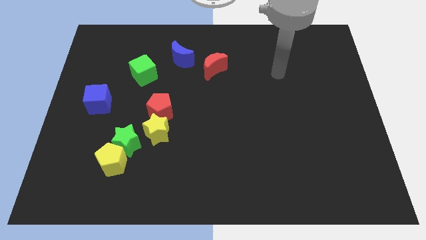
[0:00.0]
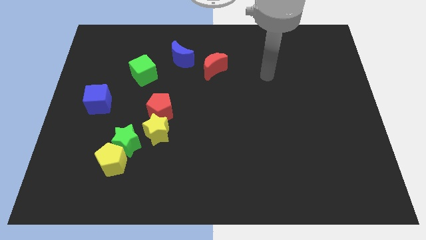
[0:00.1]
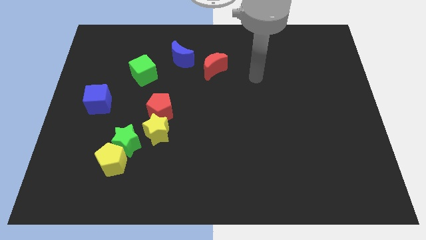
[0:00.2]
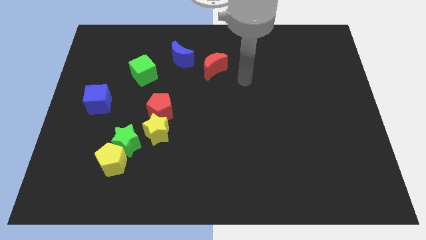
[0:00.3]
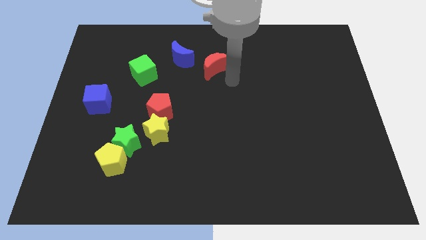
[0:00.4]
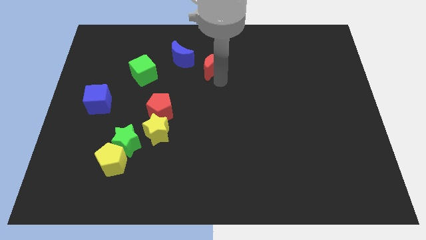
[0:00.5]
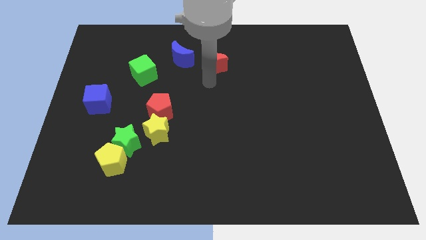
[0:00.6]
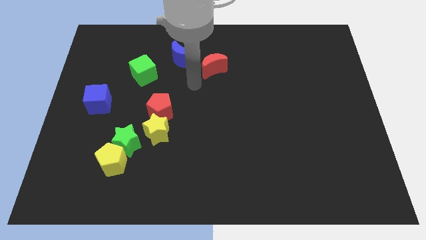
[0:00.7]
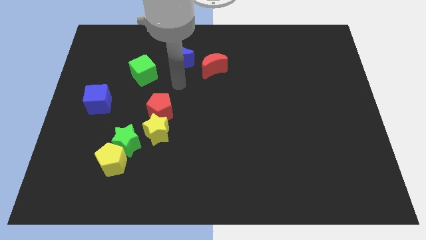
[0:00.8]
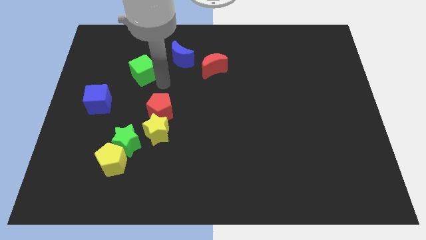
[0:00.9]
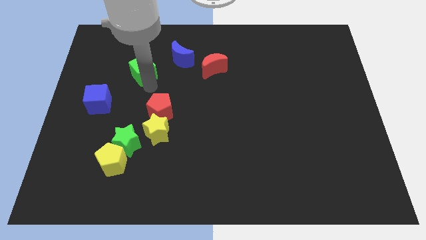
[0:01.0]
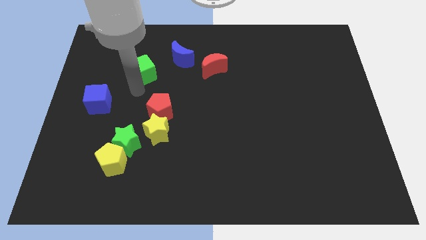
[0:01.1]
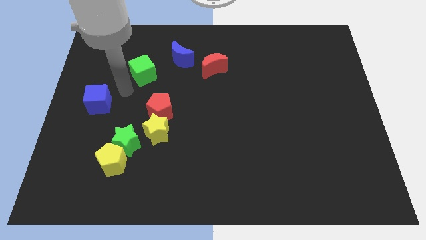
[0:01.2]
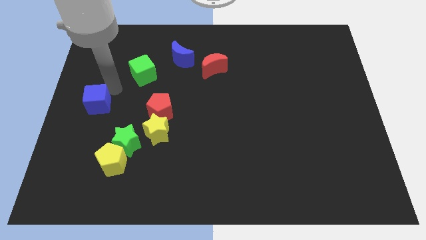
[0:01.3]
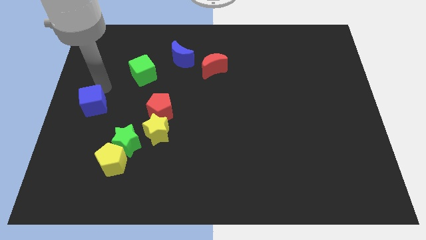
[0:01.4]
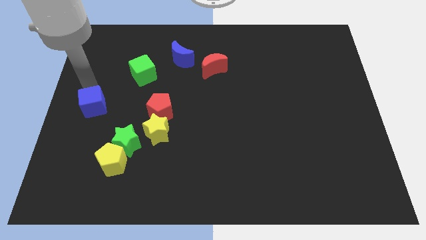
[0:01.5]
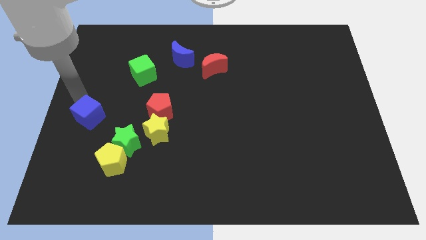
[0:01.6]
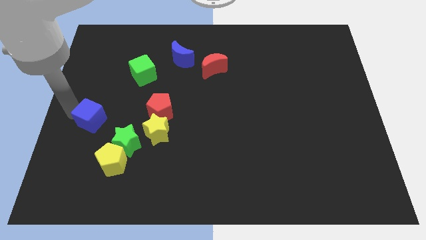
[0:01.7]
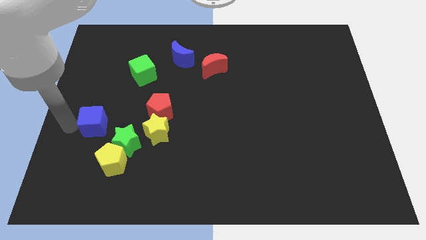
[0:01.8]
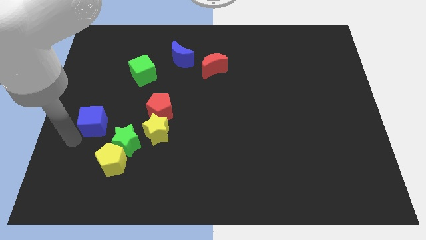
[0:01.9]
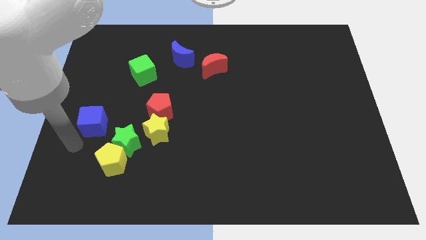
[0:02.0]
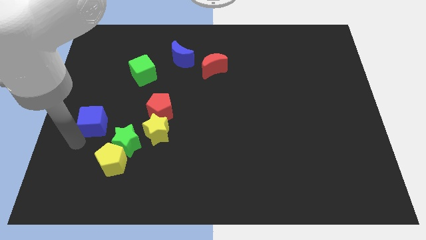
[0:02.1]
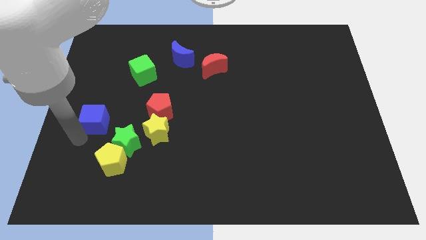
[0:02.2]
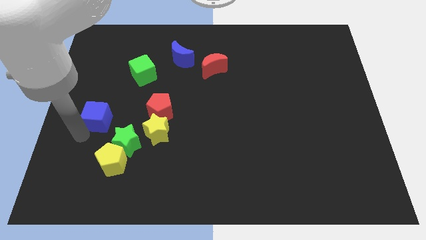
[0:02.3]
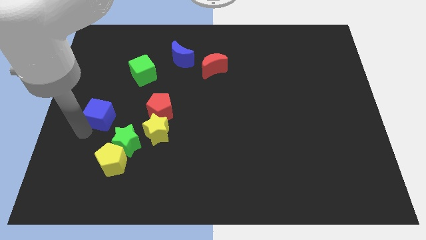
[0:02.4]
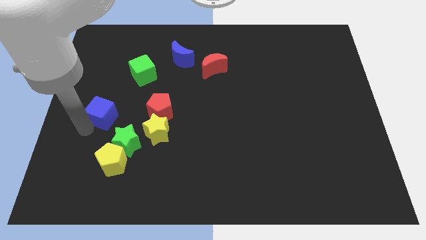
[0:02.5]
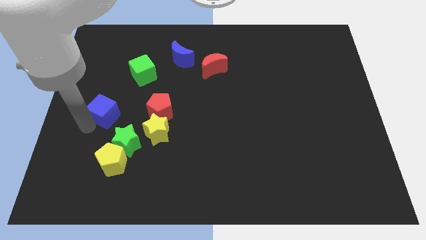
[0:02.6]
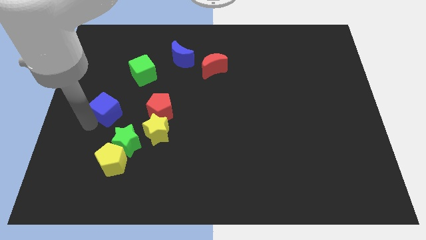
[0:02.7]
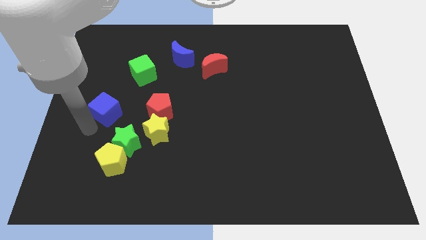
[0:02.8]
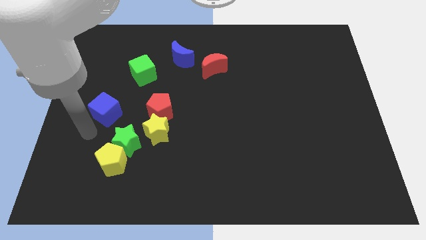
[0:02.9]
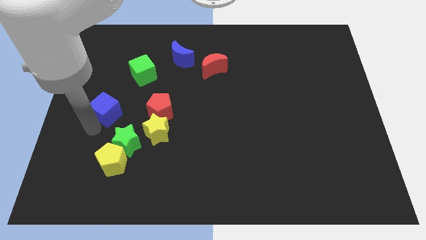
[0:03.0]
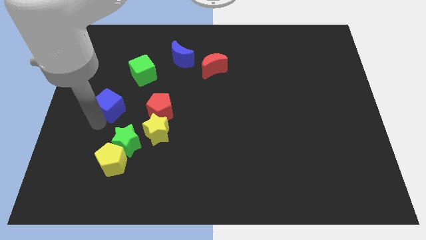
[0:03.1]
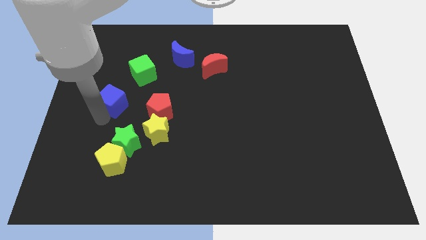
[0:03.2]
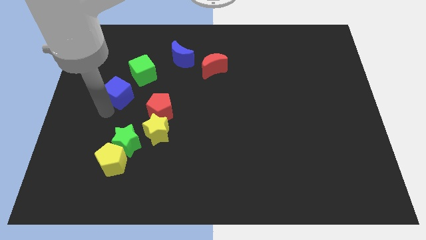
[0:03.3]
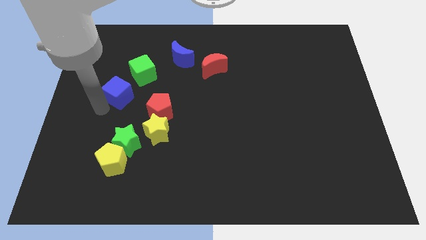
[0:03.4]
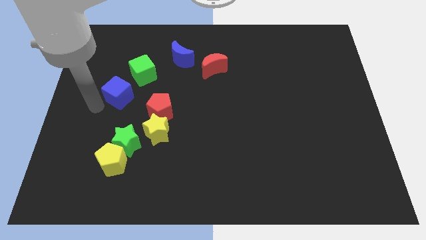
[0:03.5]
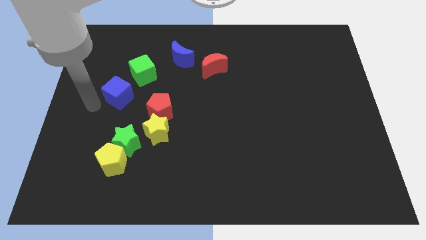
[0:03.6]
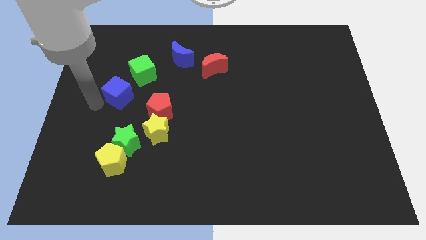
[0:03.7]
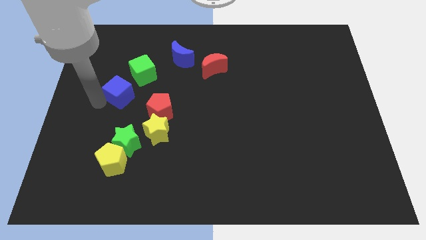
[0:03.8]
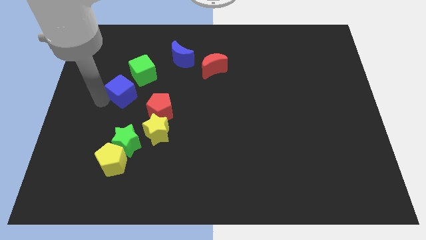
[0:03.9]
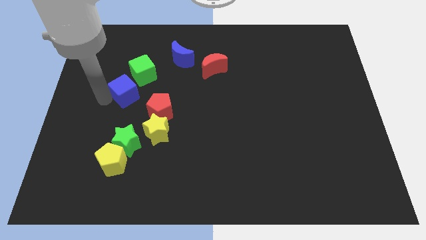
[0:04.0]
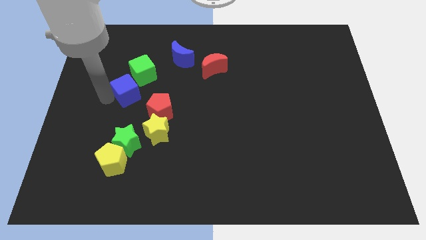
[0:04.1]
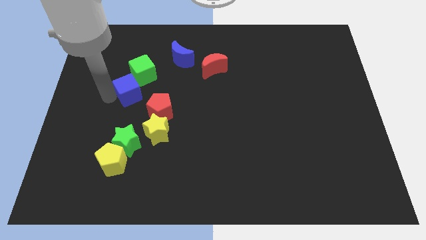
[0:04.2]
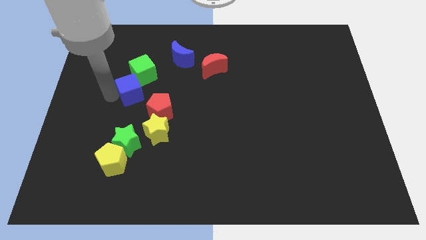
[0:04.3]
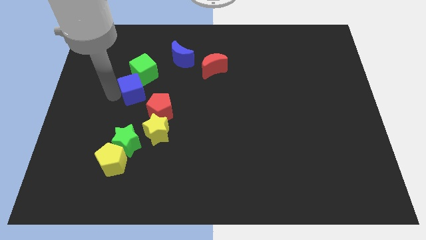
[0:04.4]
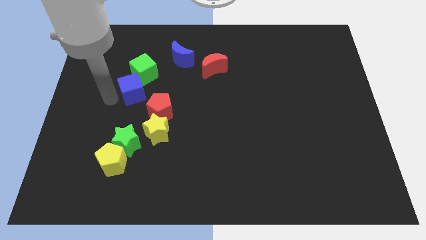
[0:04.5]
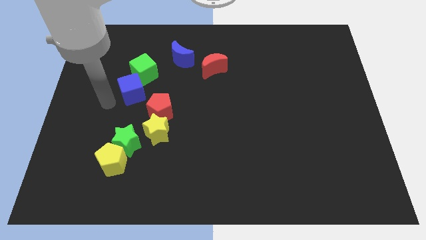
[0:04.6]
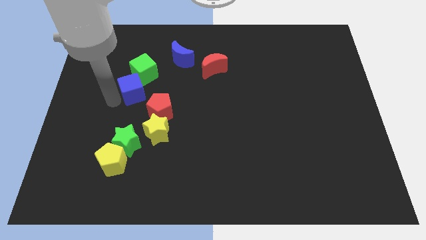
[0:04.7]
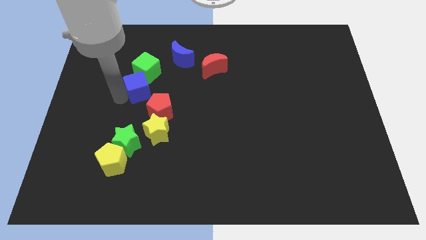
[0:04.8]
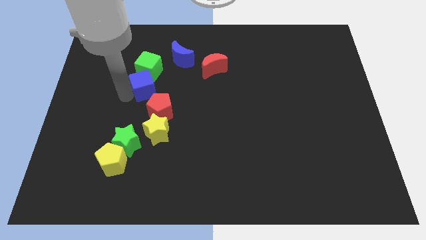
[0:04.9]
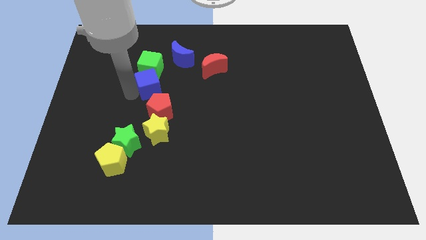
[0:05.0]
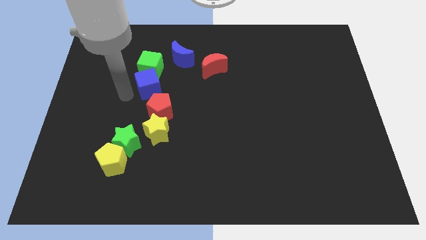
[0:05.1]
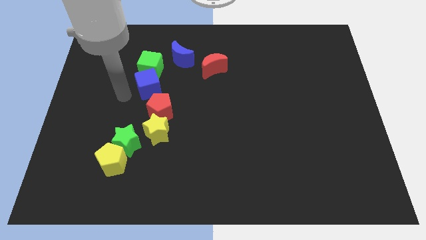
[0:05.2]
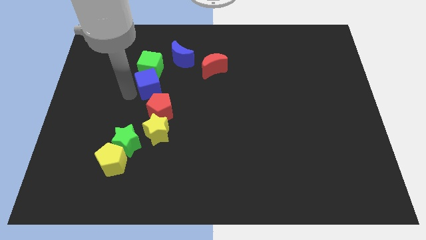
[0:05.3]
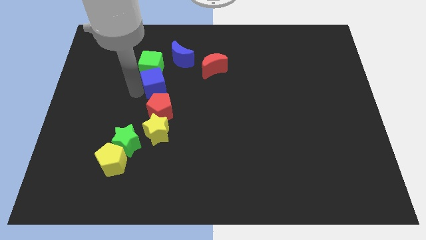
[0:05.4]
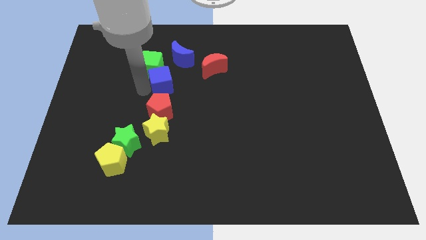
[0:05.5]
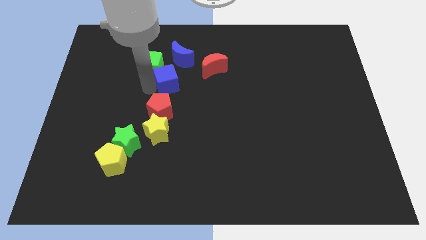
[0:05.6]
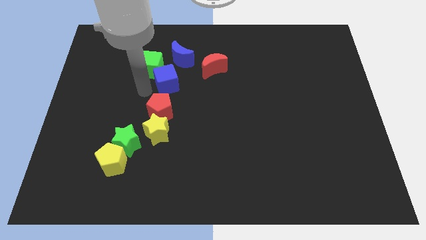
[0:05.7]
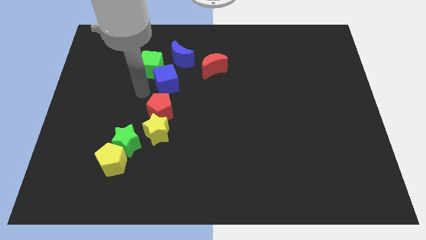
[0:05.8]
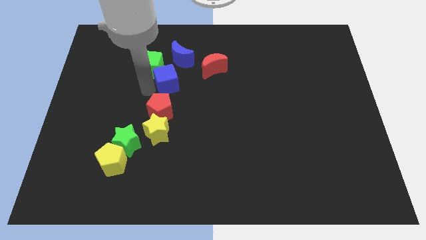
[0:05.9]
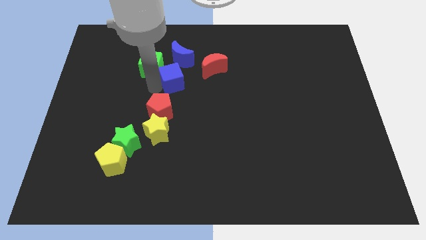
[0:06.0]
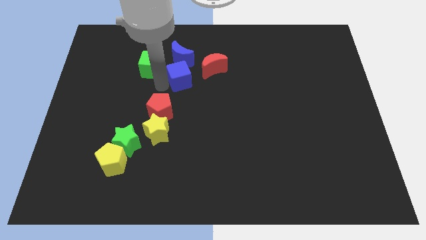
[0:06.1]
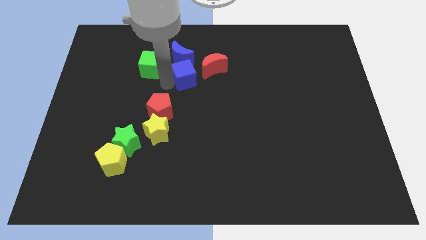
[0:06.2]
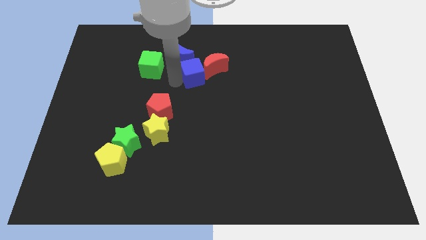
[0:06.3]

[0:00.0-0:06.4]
put the blue cube next to the red moon

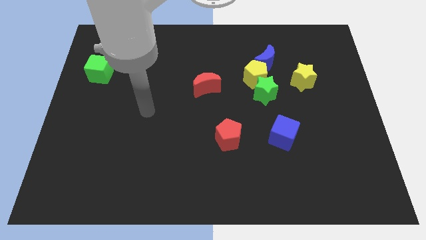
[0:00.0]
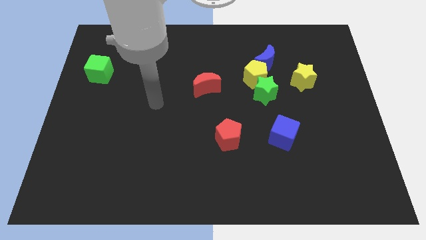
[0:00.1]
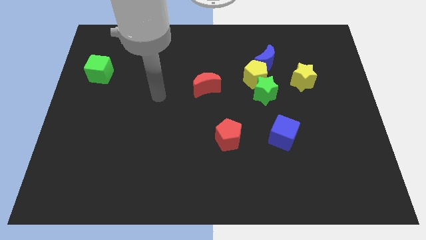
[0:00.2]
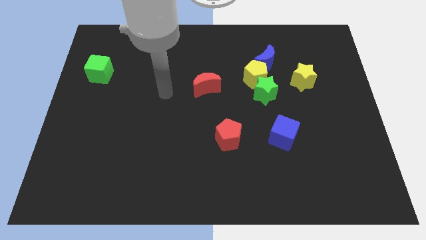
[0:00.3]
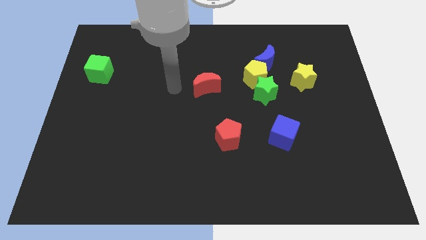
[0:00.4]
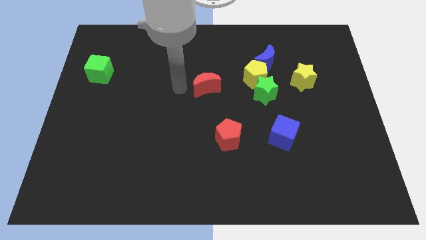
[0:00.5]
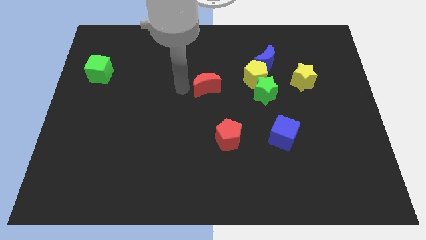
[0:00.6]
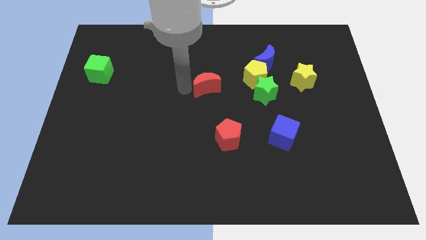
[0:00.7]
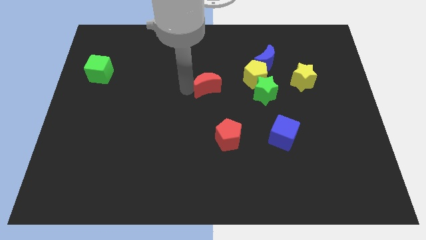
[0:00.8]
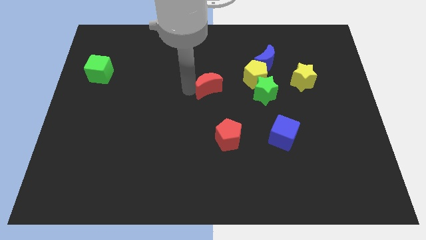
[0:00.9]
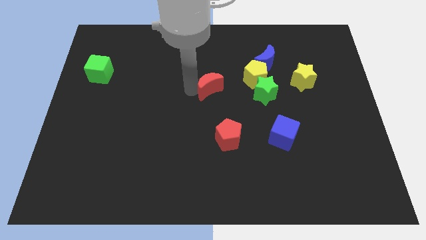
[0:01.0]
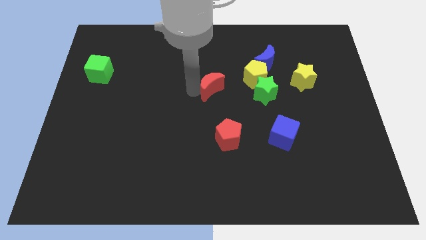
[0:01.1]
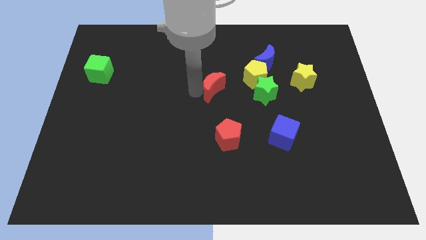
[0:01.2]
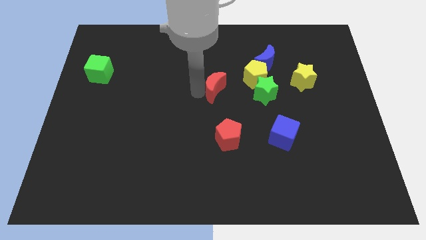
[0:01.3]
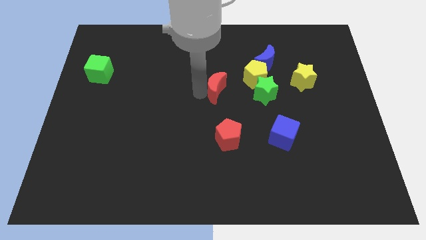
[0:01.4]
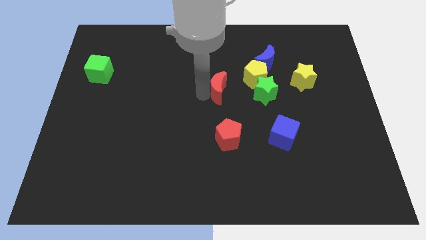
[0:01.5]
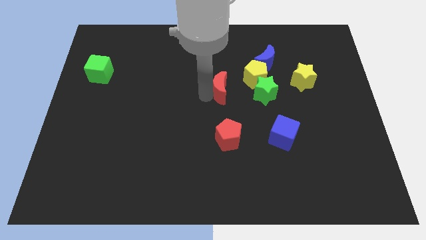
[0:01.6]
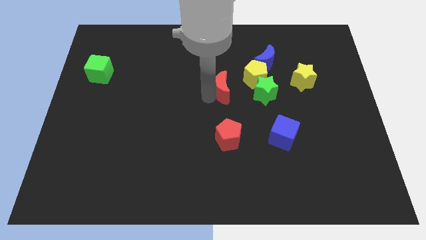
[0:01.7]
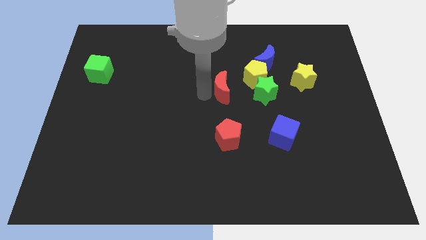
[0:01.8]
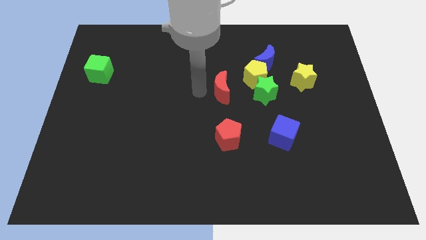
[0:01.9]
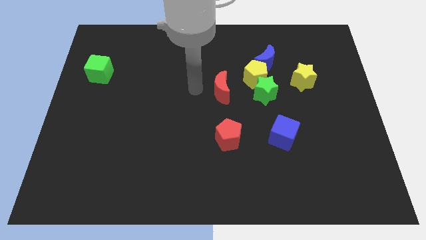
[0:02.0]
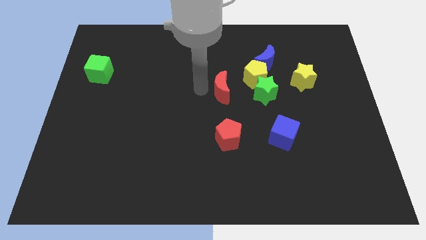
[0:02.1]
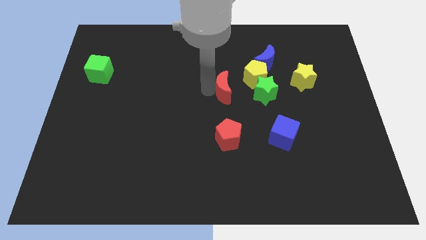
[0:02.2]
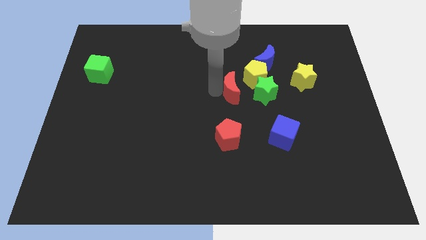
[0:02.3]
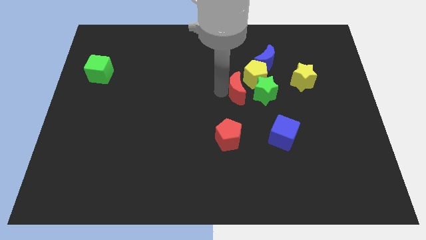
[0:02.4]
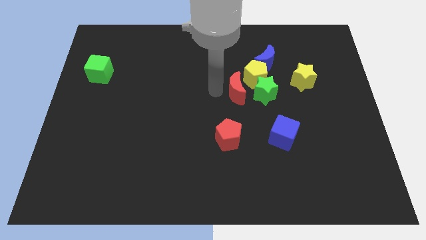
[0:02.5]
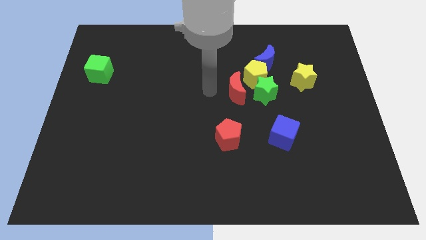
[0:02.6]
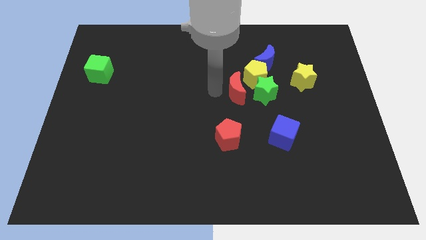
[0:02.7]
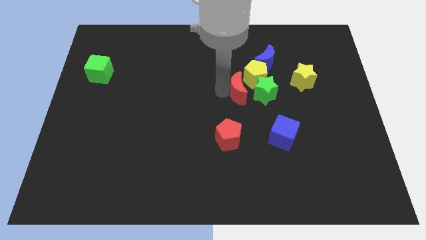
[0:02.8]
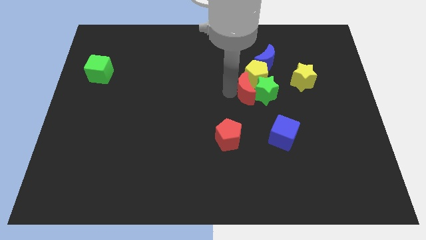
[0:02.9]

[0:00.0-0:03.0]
slide the red moon towards the green star
